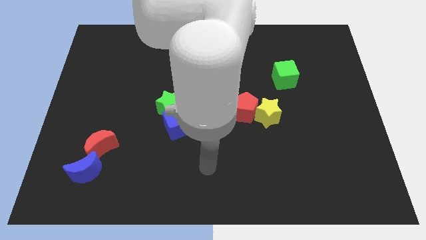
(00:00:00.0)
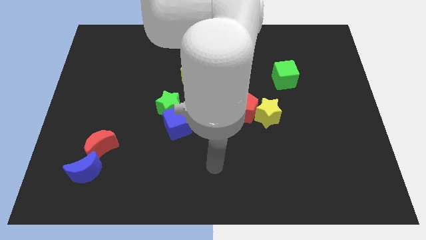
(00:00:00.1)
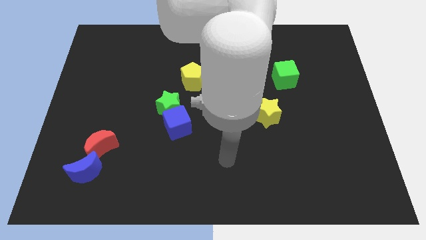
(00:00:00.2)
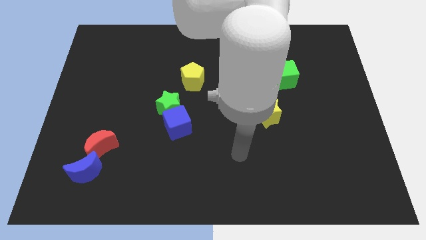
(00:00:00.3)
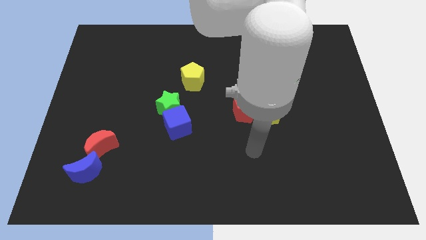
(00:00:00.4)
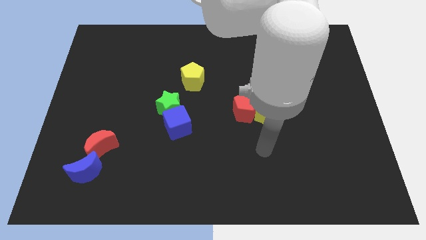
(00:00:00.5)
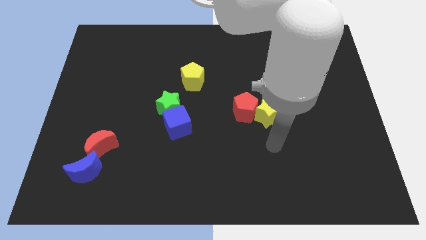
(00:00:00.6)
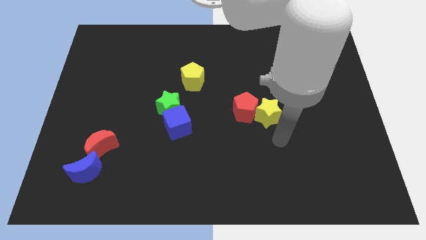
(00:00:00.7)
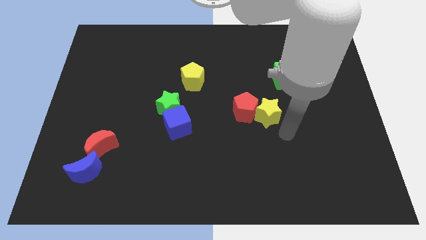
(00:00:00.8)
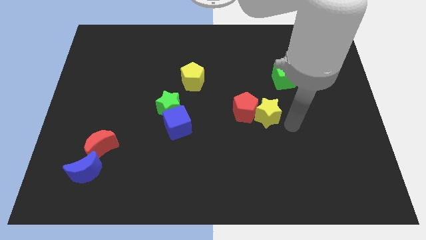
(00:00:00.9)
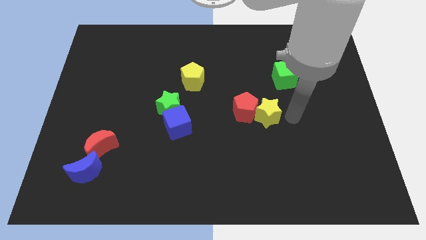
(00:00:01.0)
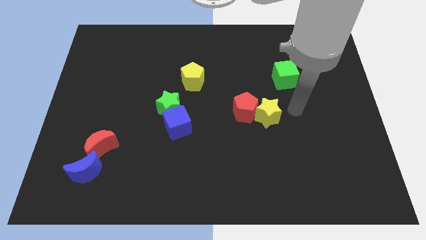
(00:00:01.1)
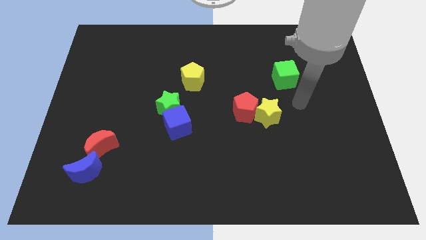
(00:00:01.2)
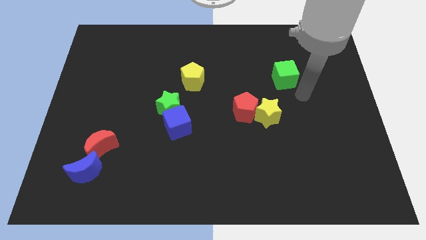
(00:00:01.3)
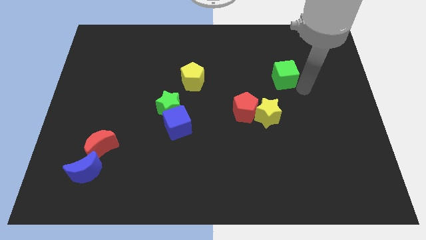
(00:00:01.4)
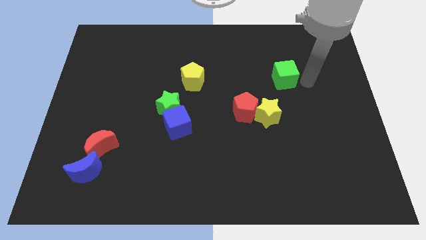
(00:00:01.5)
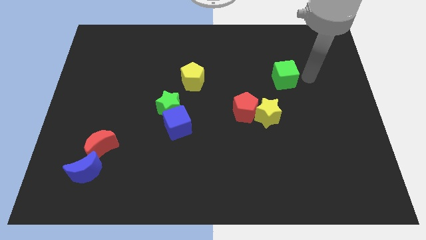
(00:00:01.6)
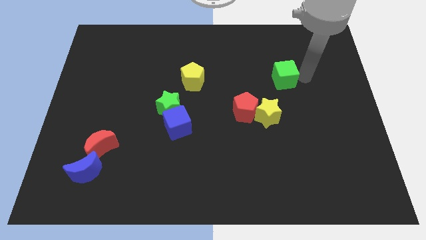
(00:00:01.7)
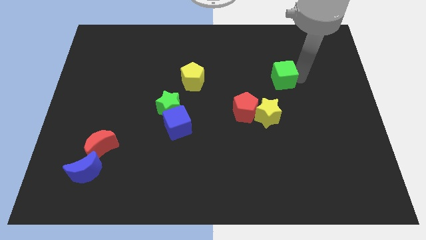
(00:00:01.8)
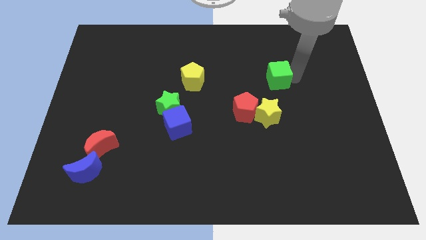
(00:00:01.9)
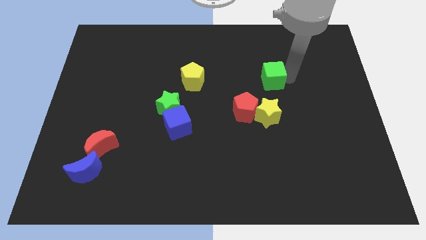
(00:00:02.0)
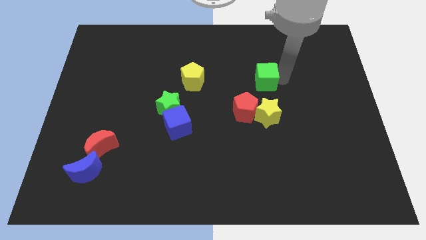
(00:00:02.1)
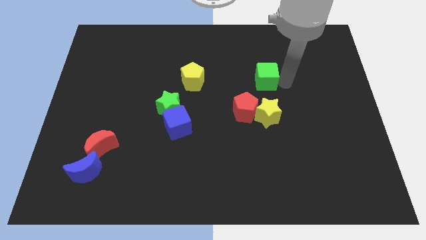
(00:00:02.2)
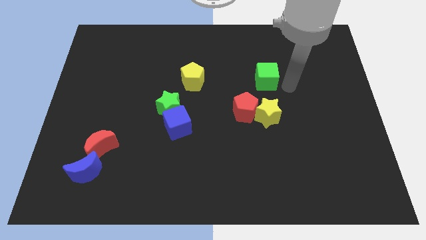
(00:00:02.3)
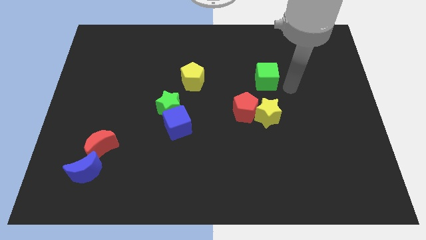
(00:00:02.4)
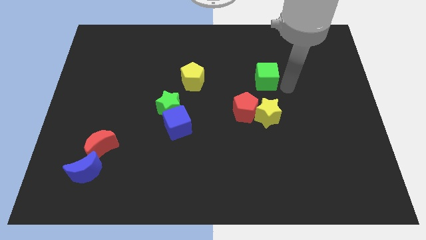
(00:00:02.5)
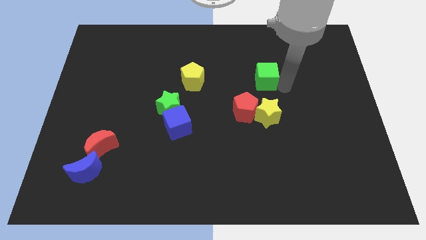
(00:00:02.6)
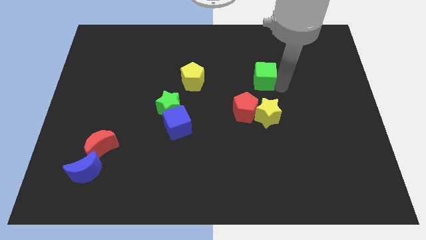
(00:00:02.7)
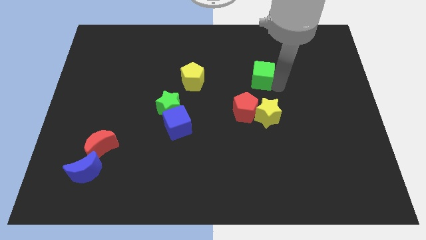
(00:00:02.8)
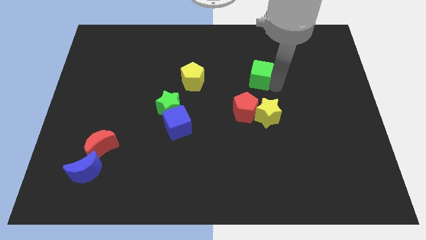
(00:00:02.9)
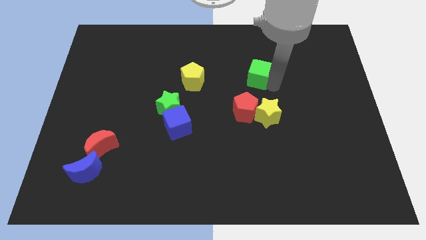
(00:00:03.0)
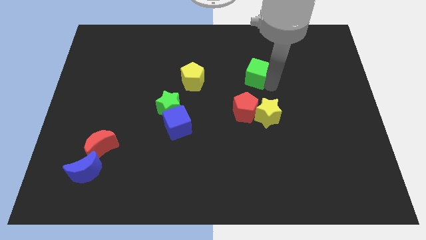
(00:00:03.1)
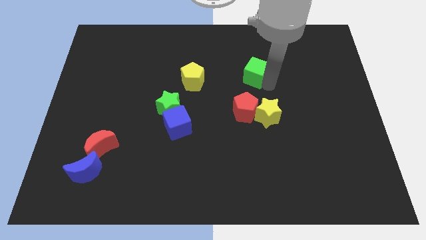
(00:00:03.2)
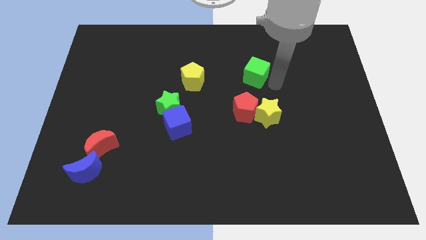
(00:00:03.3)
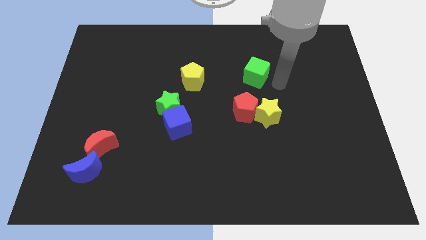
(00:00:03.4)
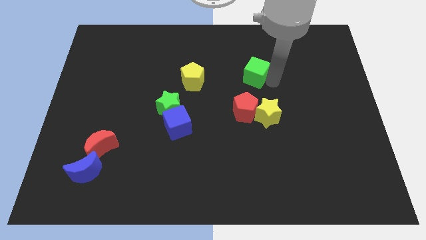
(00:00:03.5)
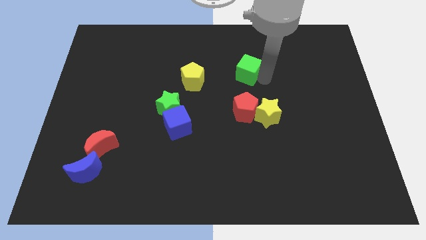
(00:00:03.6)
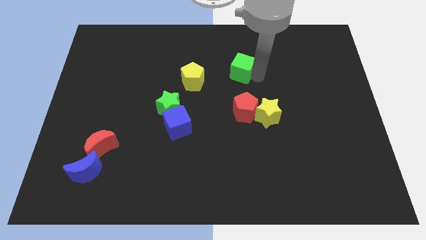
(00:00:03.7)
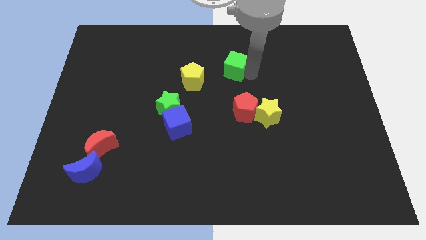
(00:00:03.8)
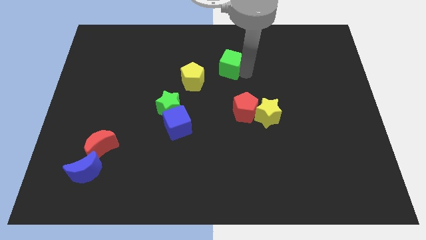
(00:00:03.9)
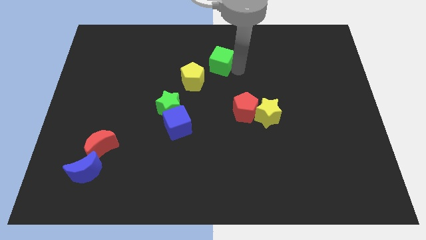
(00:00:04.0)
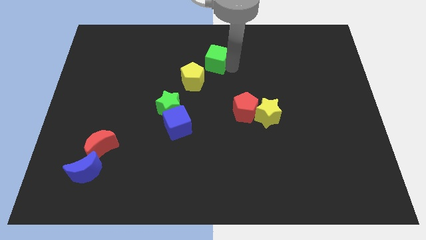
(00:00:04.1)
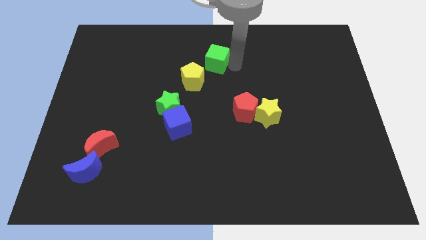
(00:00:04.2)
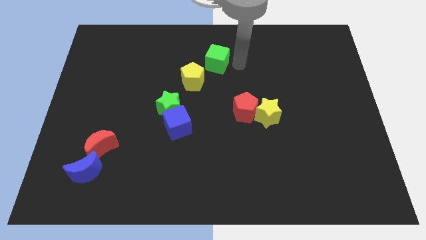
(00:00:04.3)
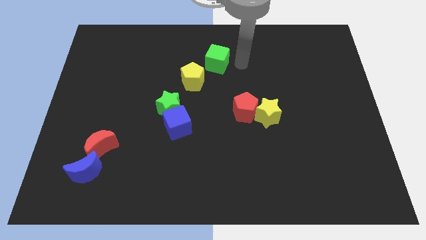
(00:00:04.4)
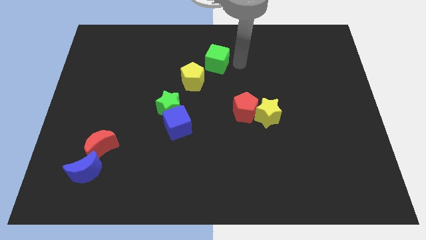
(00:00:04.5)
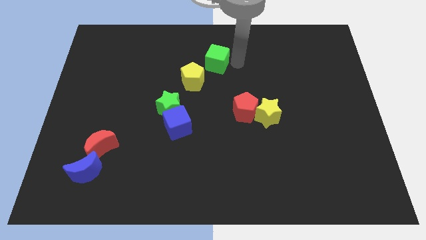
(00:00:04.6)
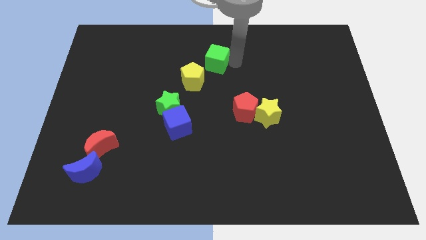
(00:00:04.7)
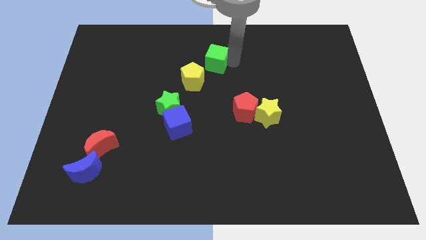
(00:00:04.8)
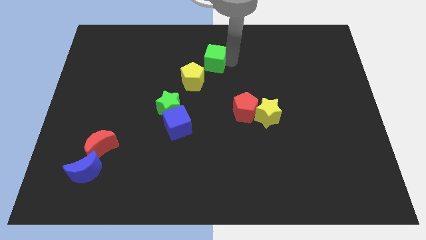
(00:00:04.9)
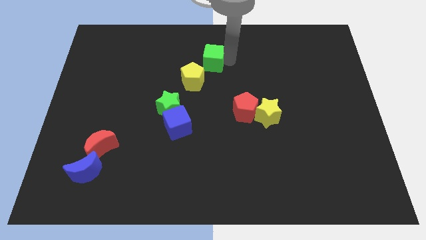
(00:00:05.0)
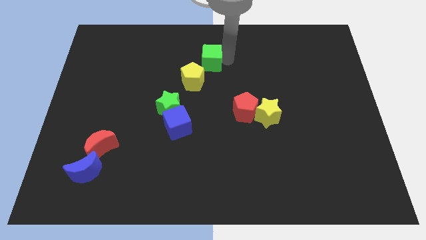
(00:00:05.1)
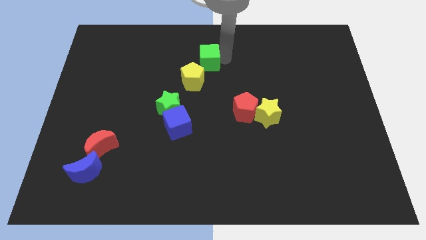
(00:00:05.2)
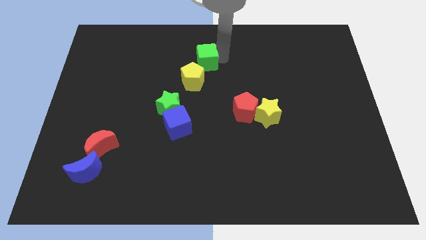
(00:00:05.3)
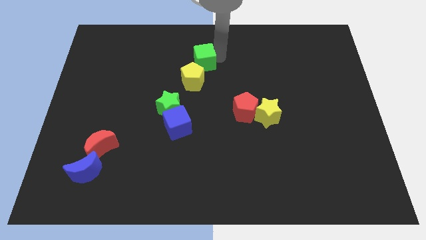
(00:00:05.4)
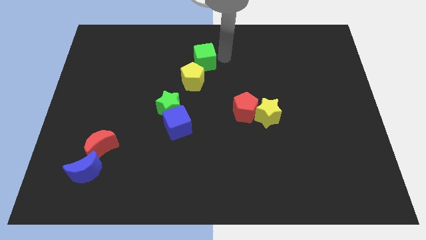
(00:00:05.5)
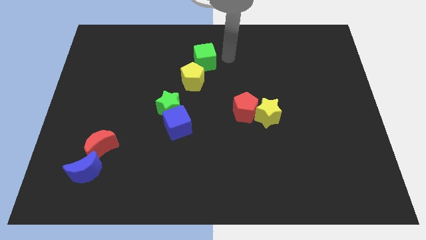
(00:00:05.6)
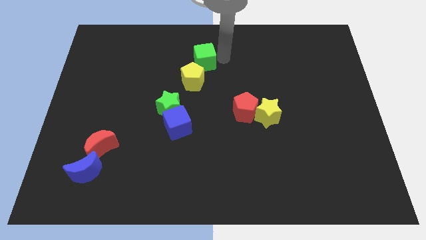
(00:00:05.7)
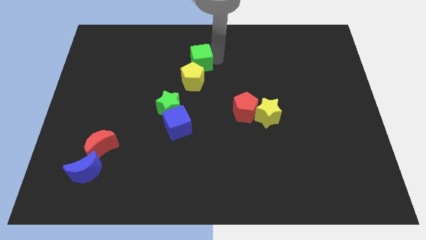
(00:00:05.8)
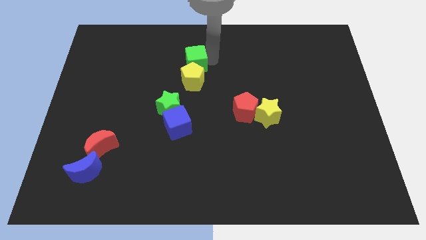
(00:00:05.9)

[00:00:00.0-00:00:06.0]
move the green cube left

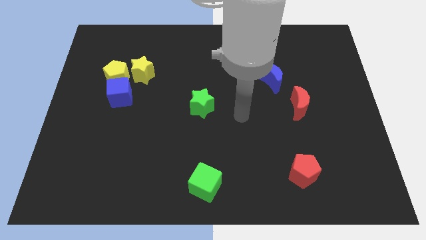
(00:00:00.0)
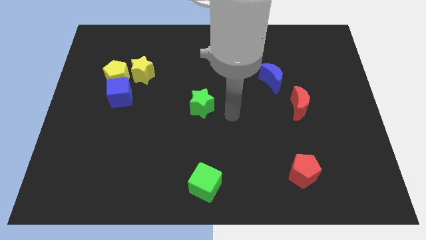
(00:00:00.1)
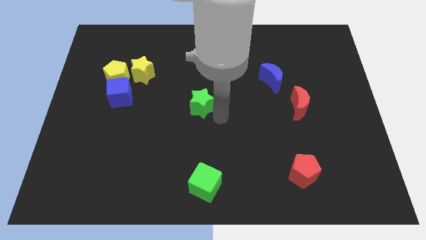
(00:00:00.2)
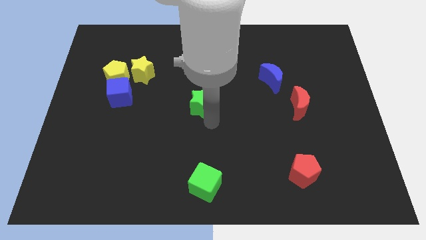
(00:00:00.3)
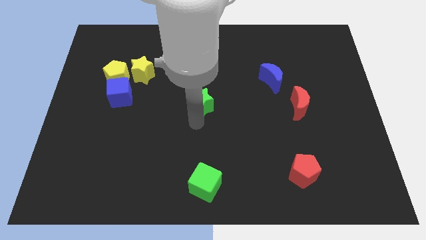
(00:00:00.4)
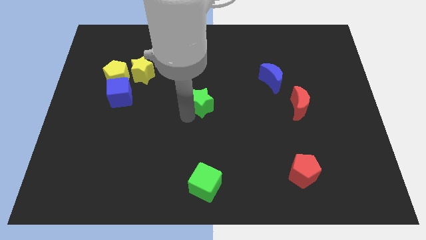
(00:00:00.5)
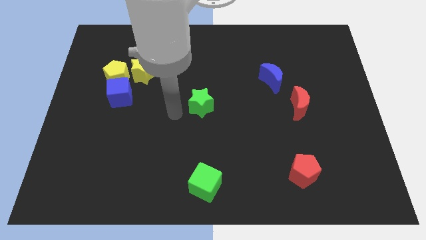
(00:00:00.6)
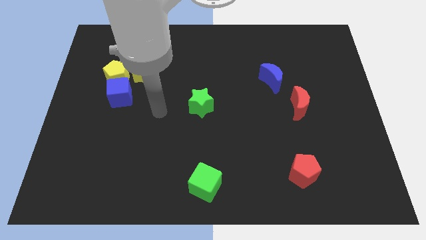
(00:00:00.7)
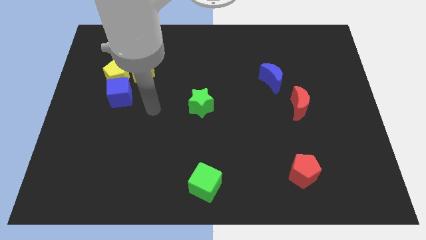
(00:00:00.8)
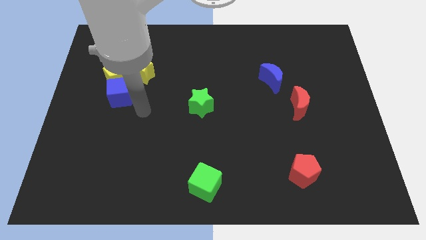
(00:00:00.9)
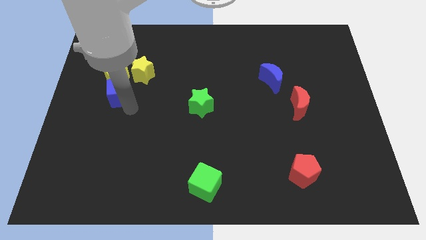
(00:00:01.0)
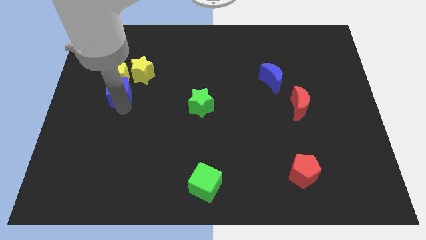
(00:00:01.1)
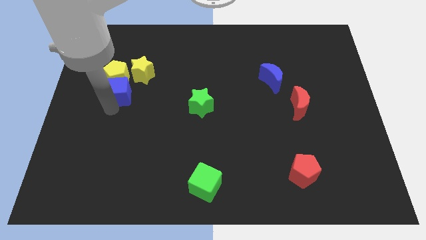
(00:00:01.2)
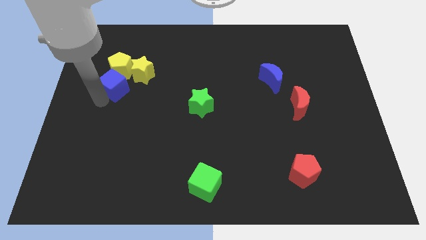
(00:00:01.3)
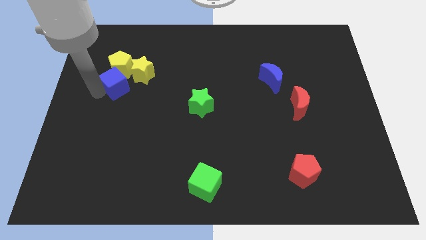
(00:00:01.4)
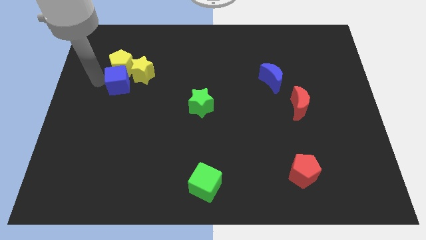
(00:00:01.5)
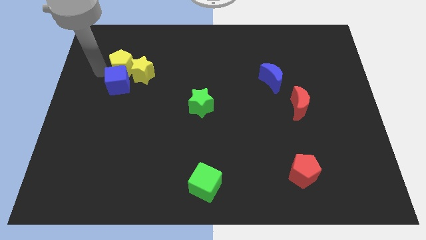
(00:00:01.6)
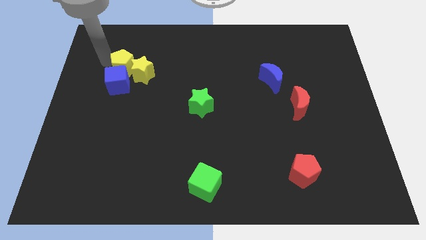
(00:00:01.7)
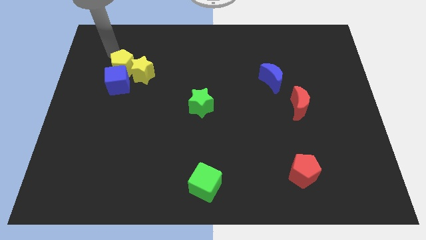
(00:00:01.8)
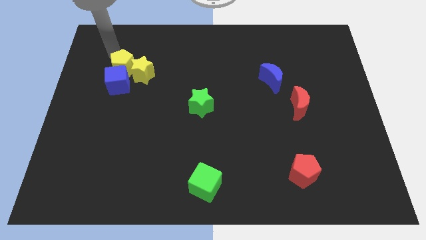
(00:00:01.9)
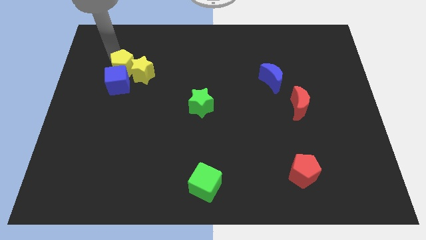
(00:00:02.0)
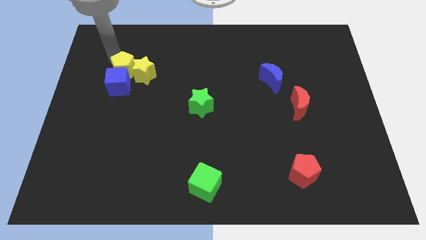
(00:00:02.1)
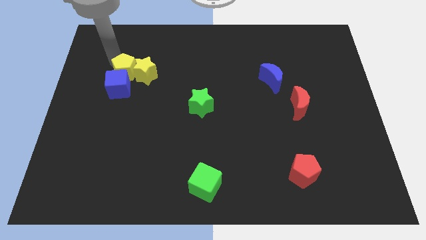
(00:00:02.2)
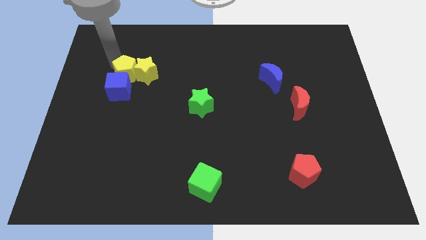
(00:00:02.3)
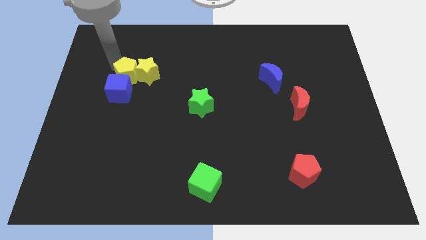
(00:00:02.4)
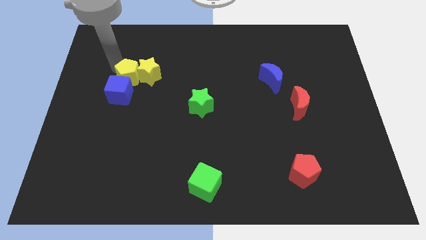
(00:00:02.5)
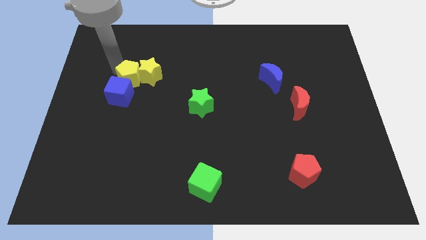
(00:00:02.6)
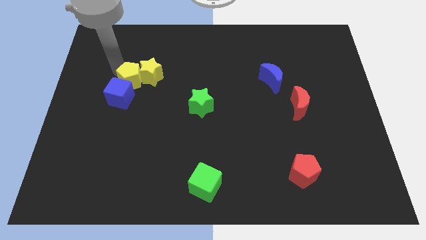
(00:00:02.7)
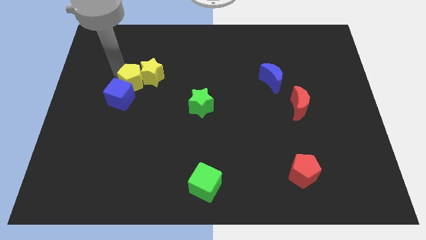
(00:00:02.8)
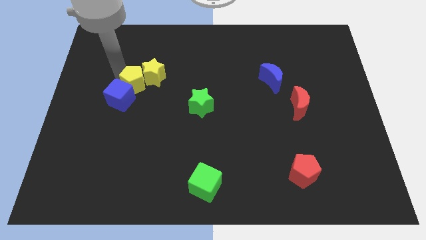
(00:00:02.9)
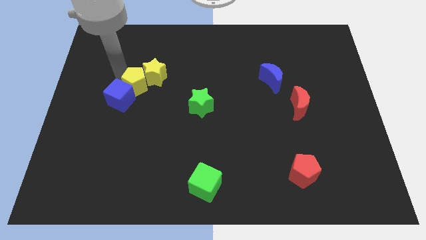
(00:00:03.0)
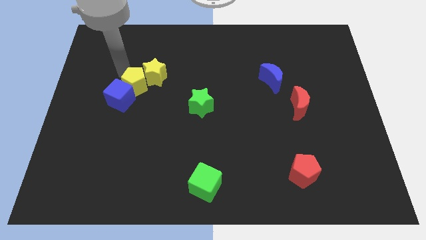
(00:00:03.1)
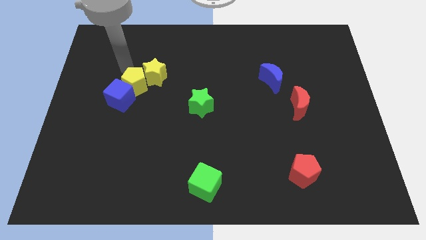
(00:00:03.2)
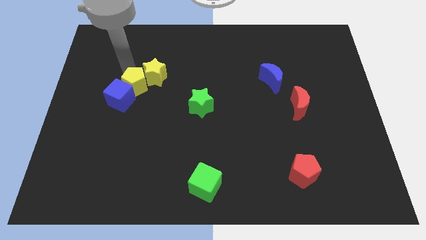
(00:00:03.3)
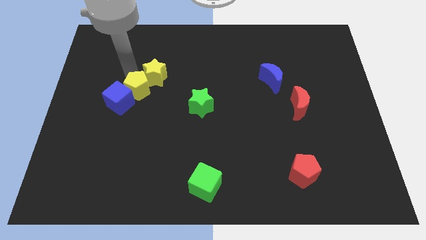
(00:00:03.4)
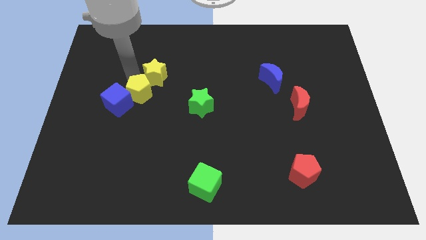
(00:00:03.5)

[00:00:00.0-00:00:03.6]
slightly push the yellow pentagon down and right
